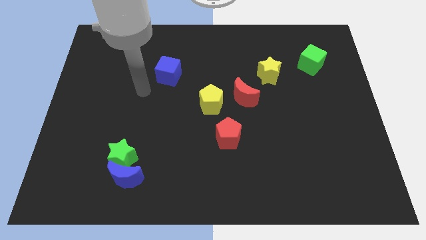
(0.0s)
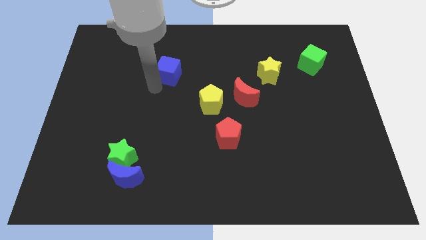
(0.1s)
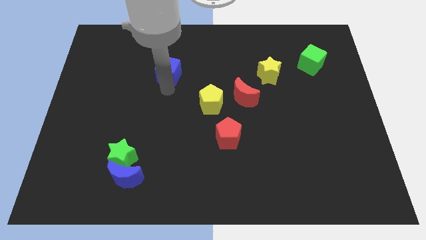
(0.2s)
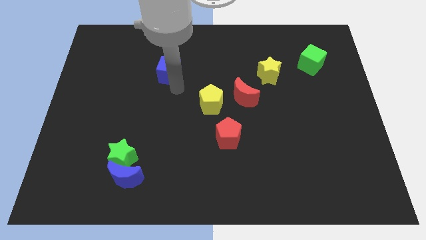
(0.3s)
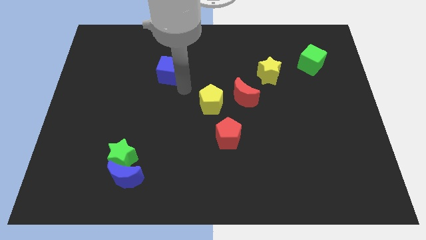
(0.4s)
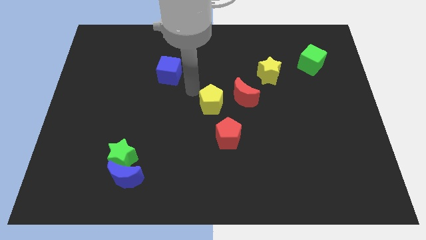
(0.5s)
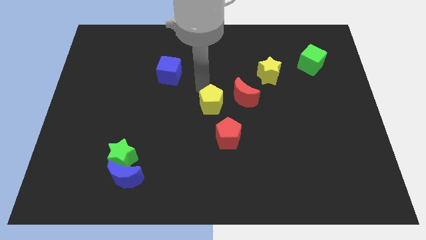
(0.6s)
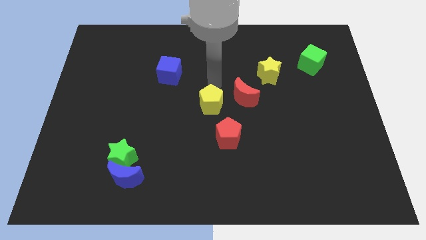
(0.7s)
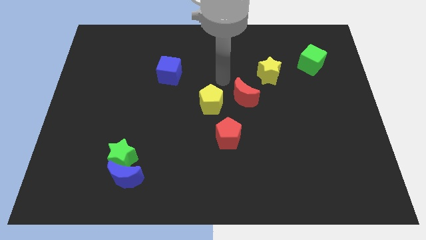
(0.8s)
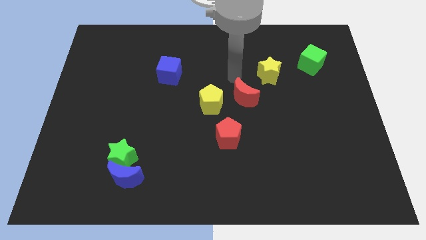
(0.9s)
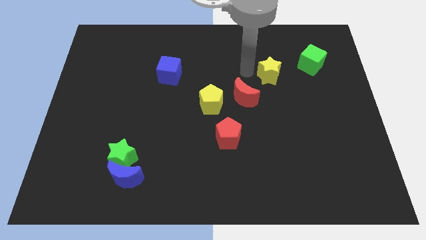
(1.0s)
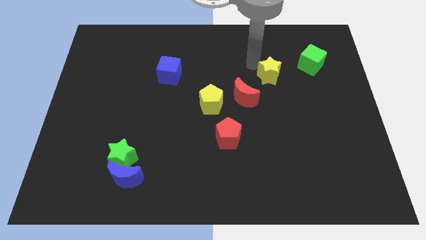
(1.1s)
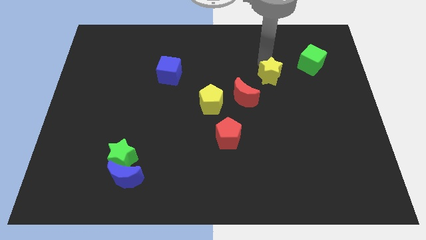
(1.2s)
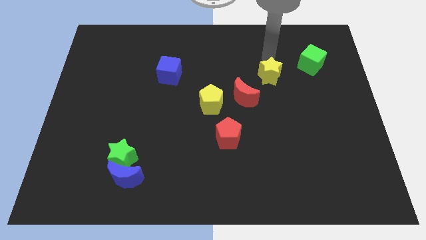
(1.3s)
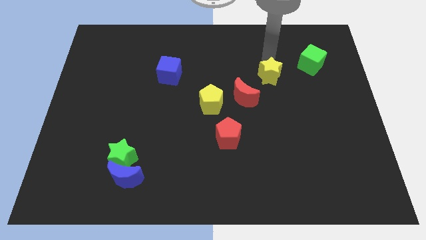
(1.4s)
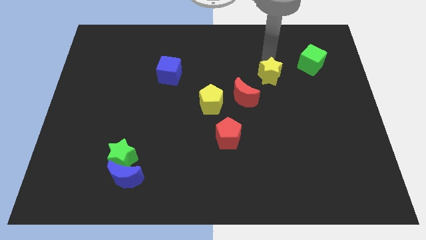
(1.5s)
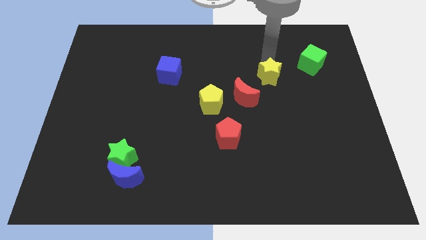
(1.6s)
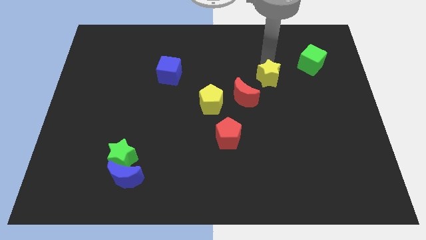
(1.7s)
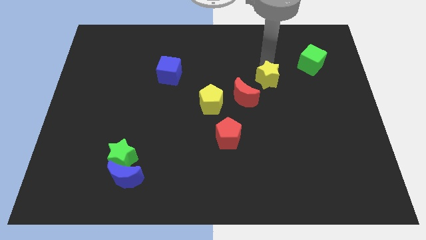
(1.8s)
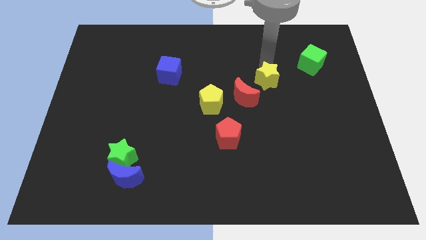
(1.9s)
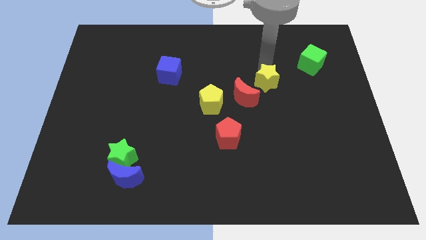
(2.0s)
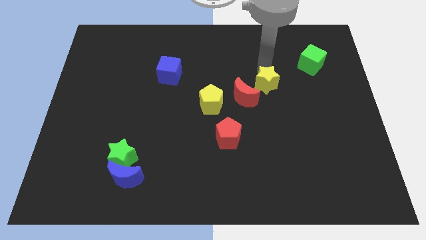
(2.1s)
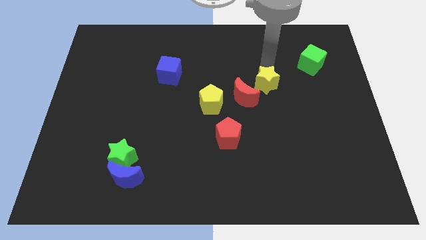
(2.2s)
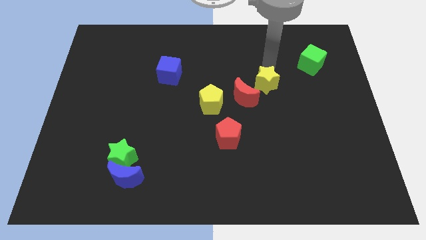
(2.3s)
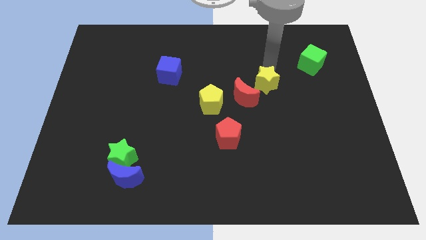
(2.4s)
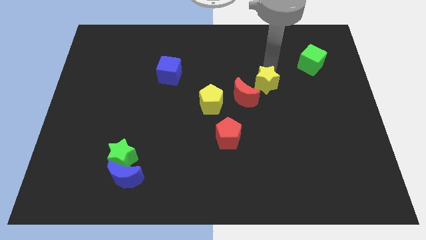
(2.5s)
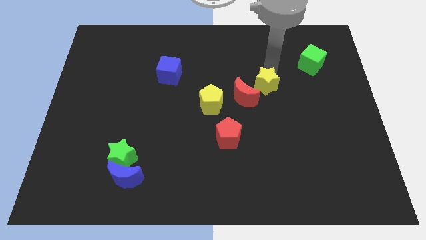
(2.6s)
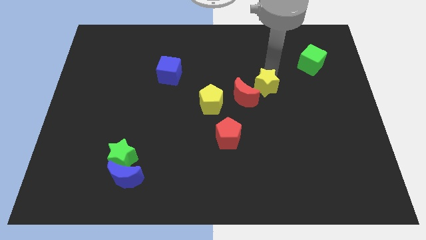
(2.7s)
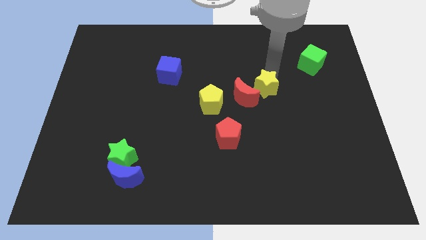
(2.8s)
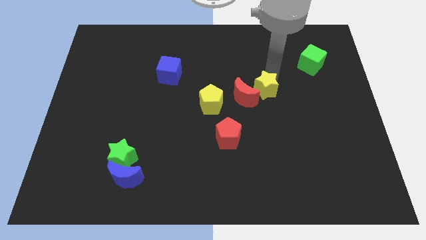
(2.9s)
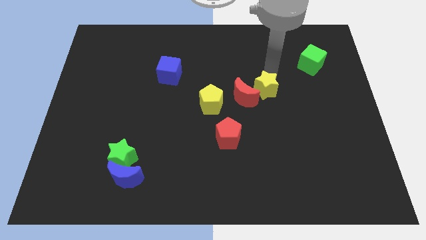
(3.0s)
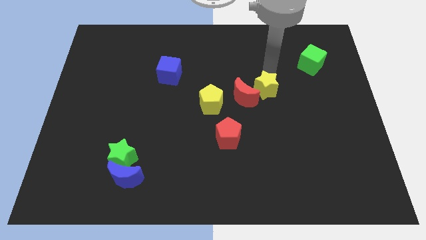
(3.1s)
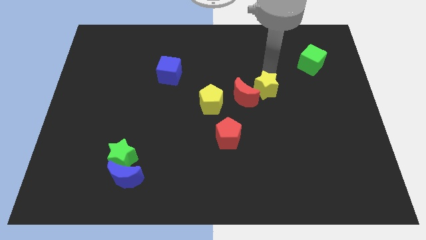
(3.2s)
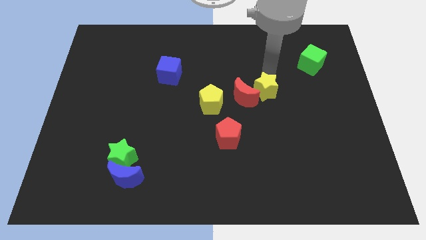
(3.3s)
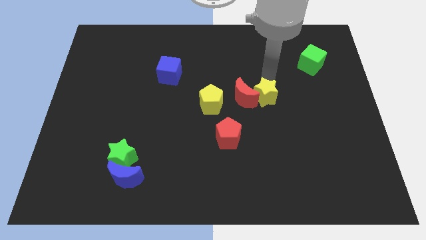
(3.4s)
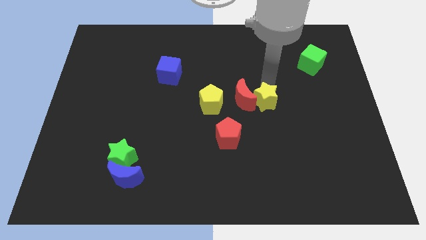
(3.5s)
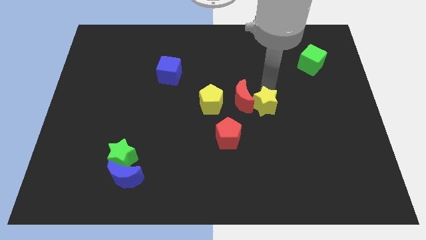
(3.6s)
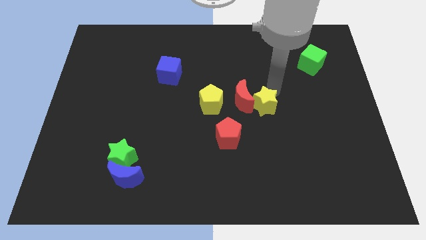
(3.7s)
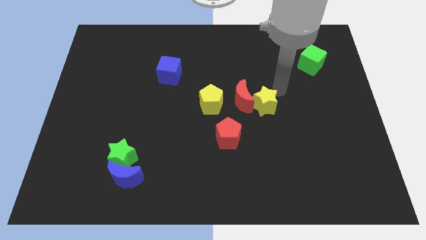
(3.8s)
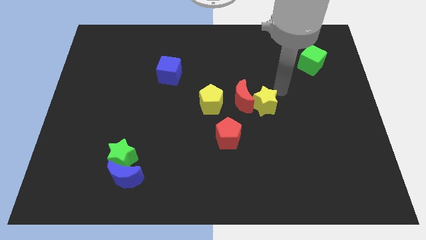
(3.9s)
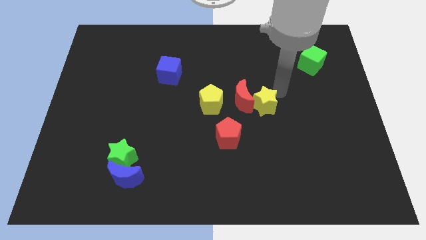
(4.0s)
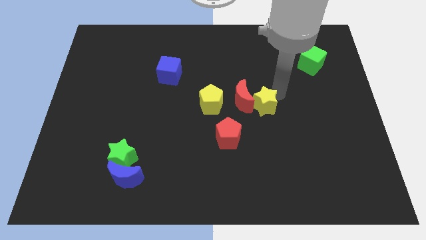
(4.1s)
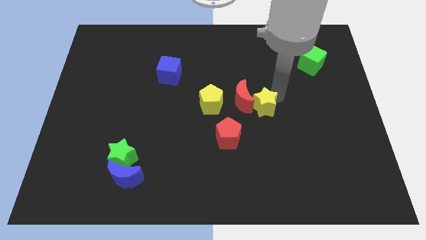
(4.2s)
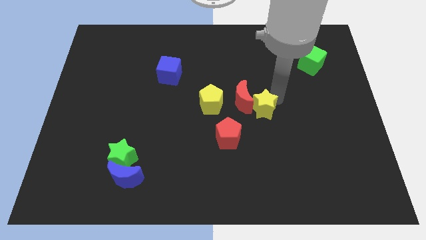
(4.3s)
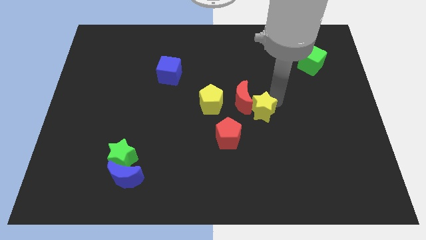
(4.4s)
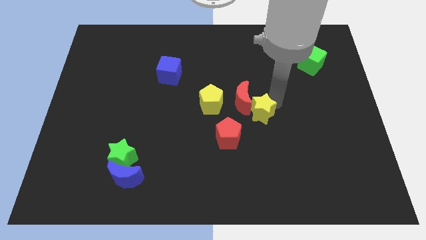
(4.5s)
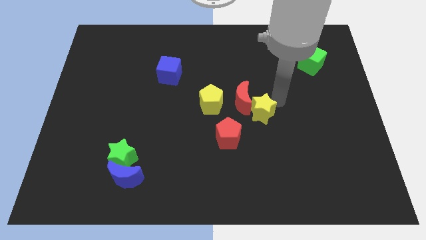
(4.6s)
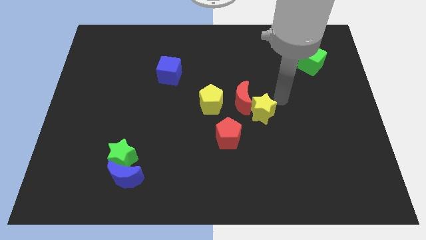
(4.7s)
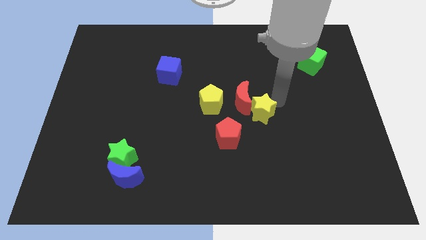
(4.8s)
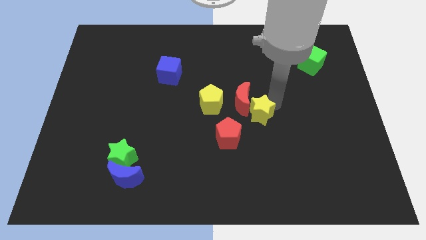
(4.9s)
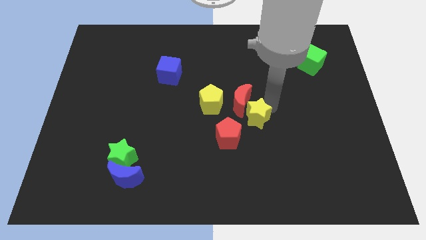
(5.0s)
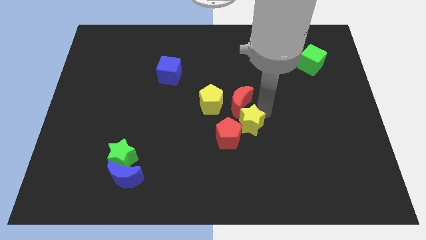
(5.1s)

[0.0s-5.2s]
push the yellow star to the red pentagon

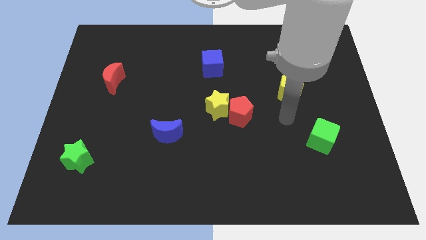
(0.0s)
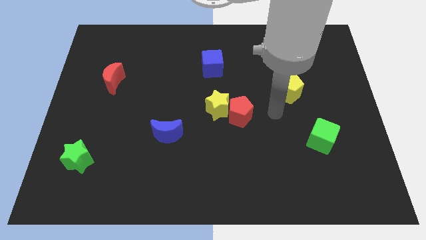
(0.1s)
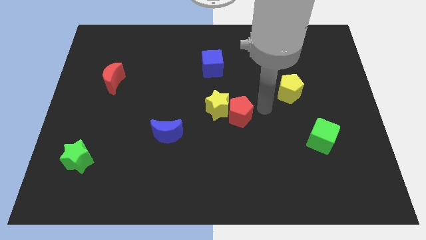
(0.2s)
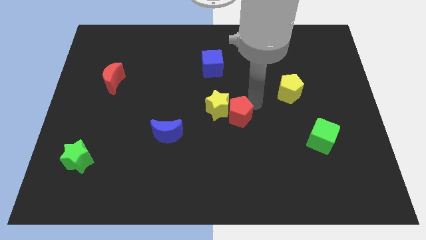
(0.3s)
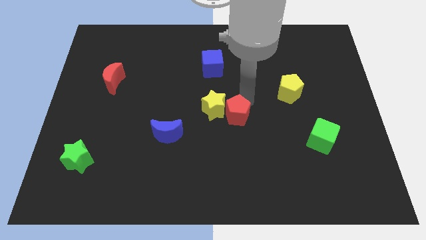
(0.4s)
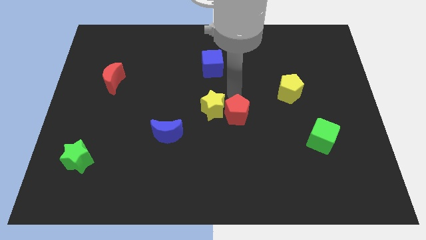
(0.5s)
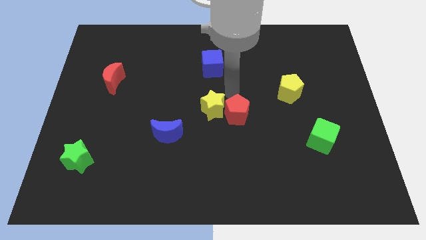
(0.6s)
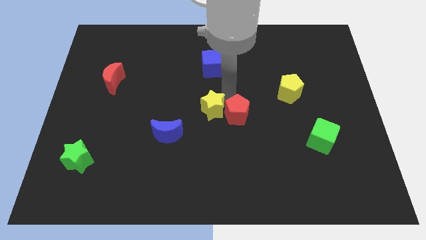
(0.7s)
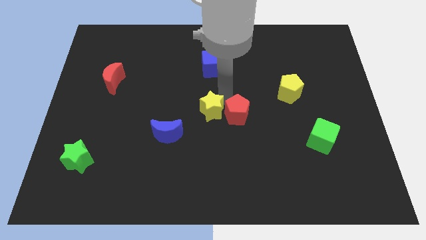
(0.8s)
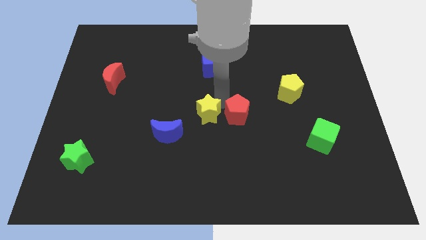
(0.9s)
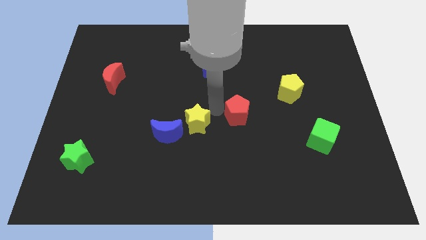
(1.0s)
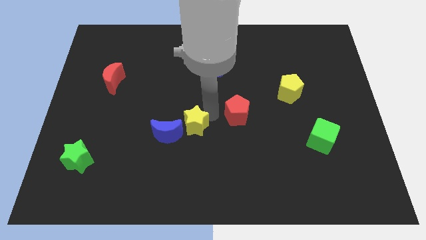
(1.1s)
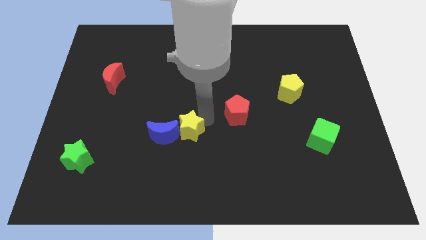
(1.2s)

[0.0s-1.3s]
slide the yellow star towards the blue moon

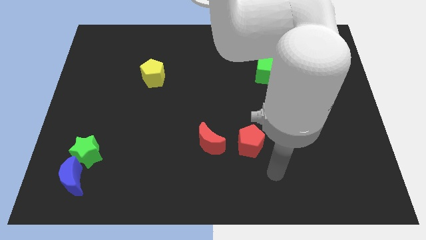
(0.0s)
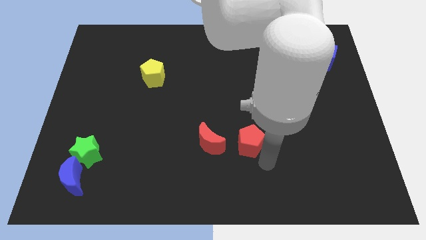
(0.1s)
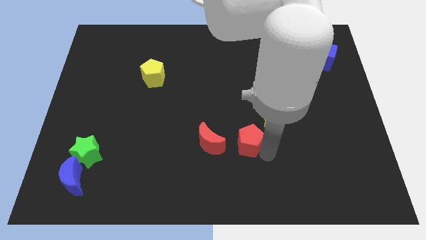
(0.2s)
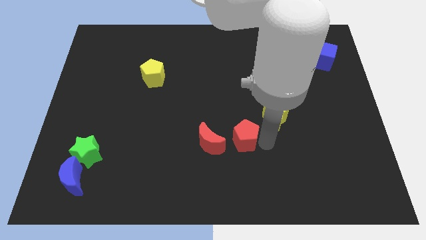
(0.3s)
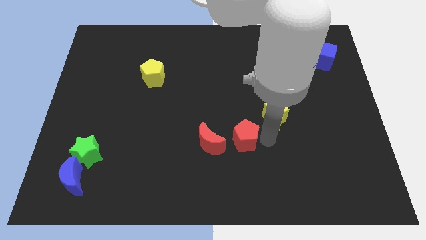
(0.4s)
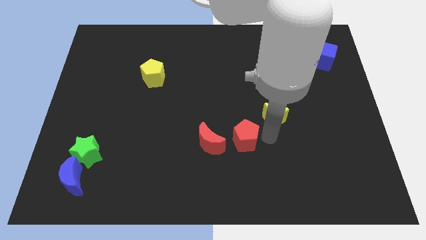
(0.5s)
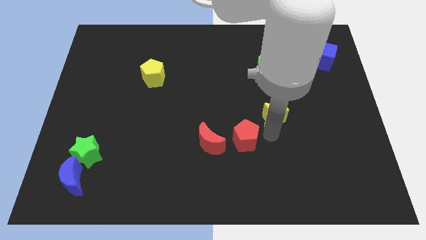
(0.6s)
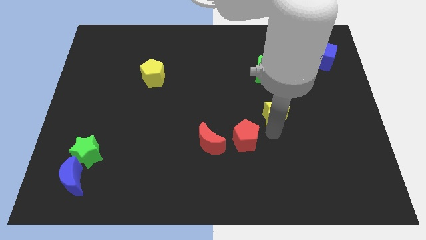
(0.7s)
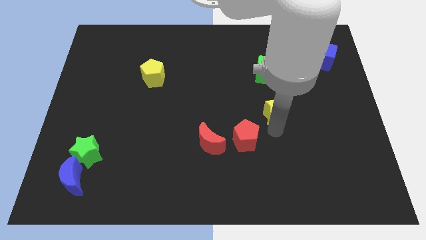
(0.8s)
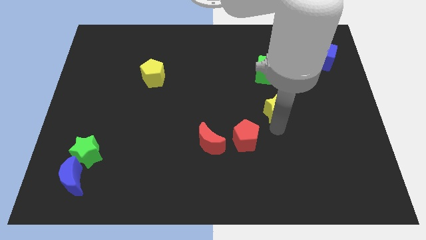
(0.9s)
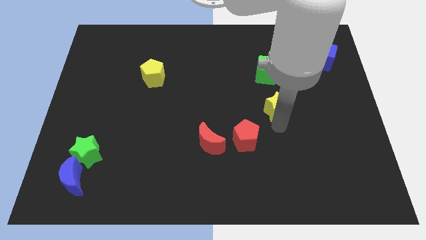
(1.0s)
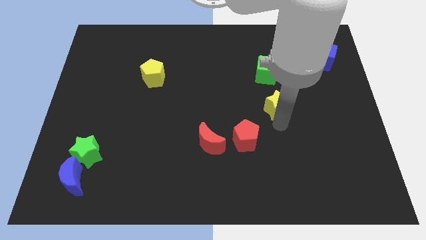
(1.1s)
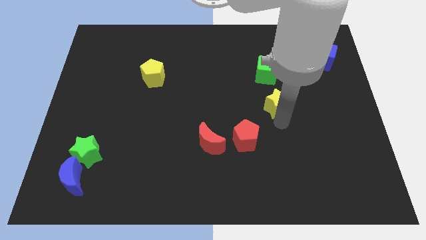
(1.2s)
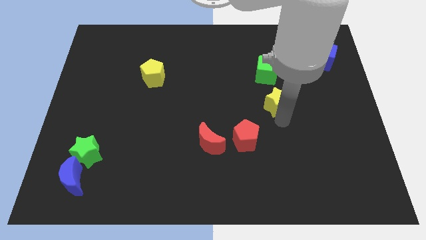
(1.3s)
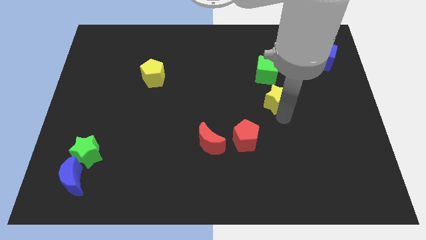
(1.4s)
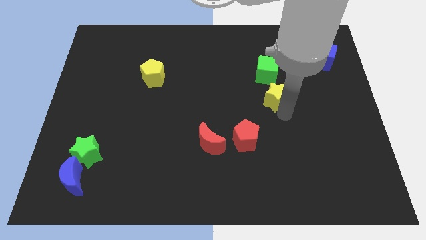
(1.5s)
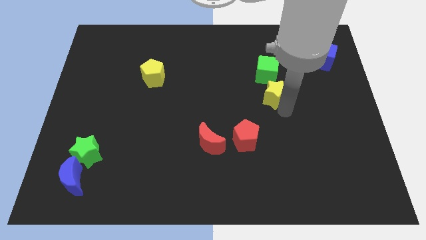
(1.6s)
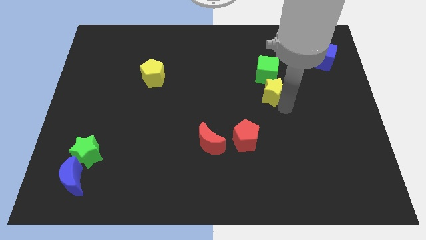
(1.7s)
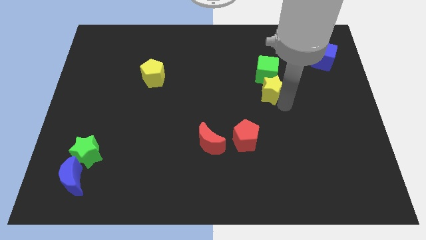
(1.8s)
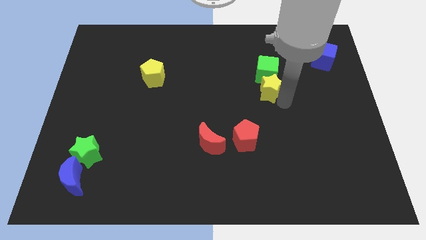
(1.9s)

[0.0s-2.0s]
put the yellow star to the green cube
